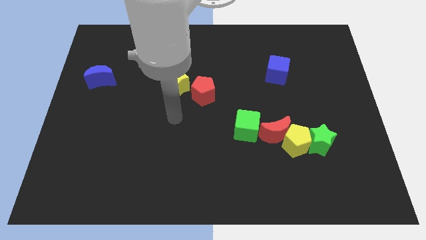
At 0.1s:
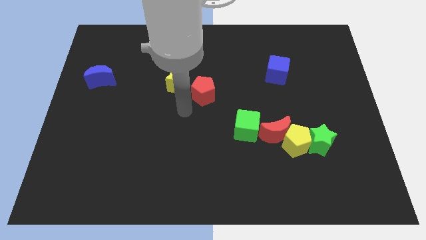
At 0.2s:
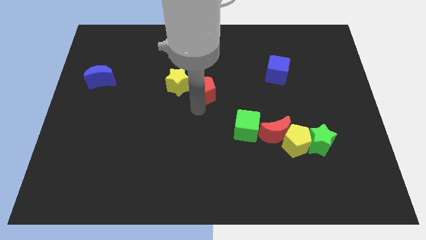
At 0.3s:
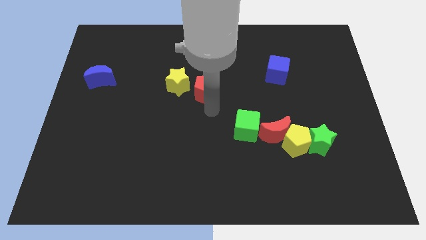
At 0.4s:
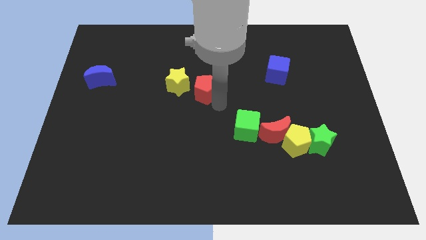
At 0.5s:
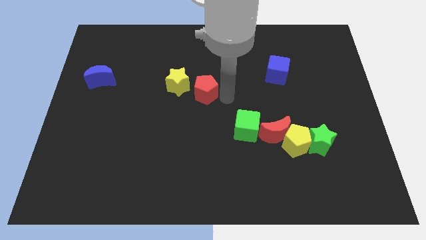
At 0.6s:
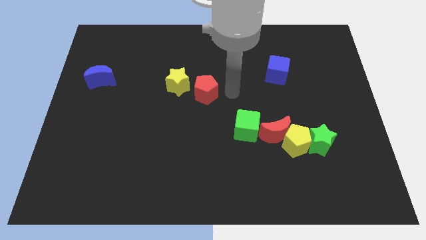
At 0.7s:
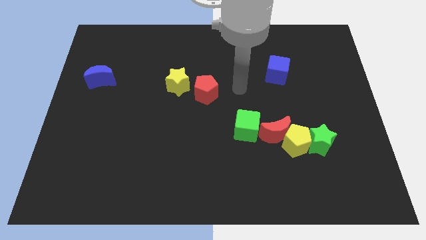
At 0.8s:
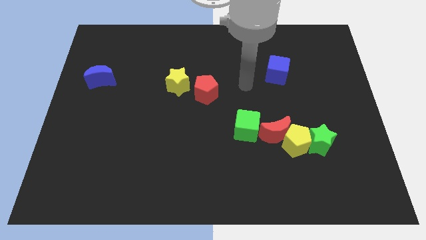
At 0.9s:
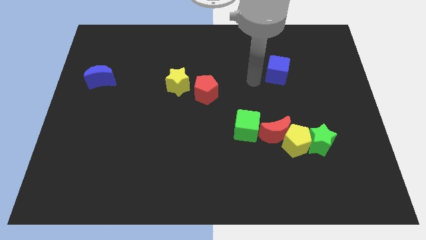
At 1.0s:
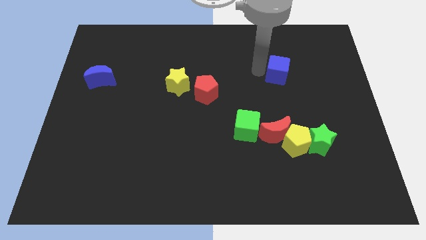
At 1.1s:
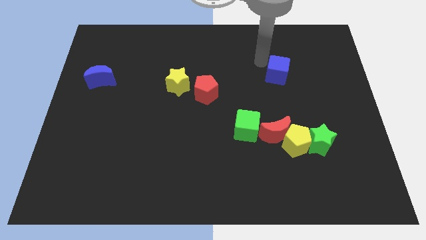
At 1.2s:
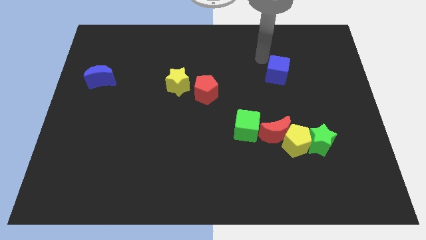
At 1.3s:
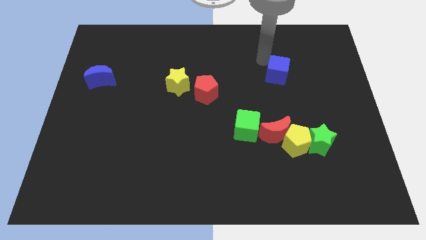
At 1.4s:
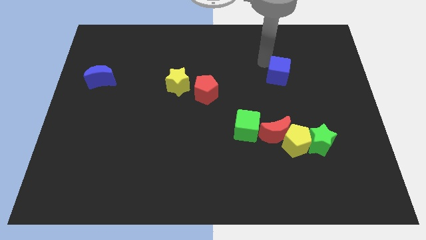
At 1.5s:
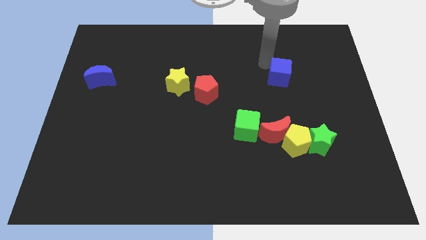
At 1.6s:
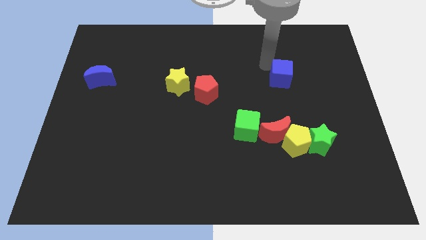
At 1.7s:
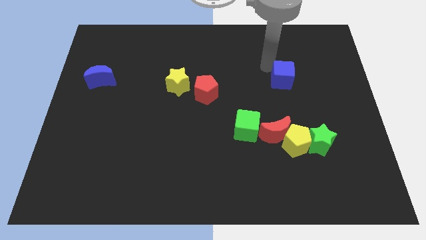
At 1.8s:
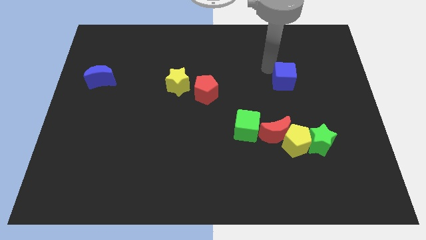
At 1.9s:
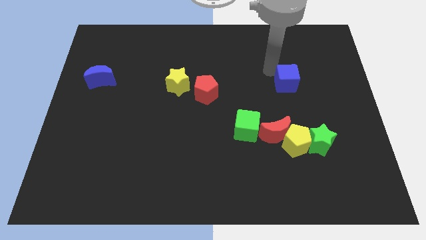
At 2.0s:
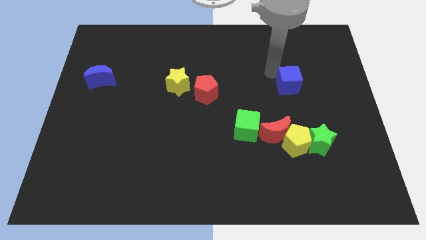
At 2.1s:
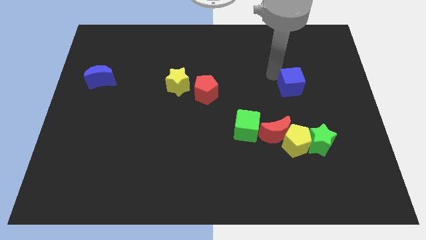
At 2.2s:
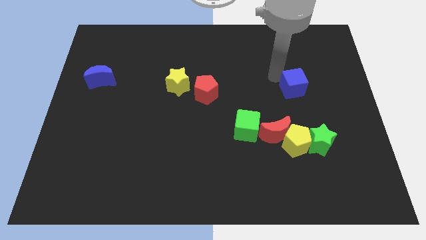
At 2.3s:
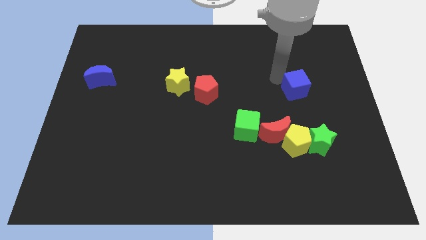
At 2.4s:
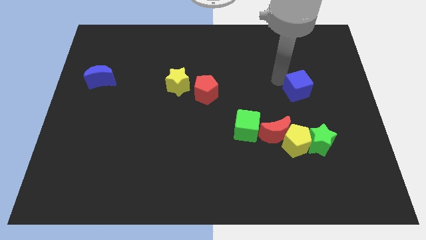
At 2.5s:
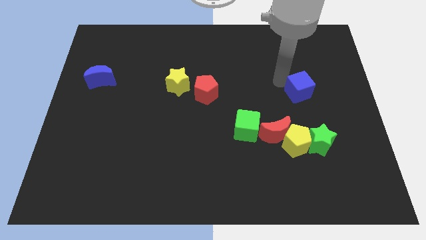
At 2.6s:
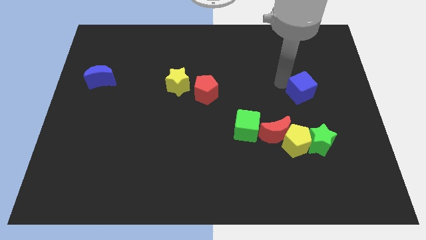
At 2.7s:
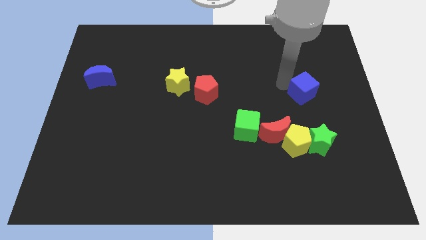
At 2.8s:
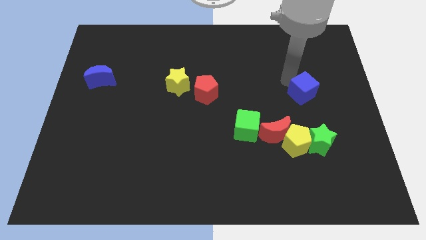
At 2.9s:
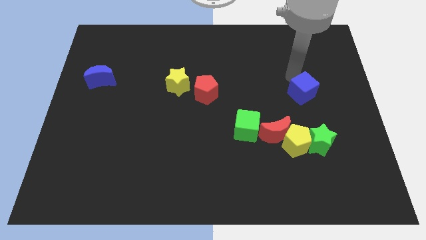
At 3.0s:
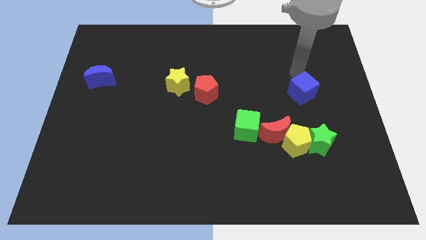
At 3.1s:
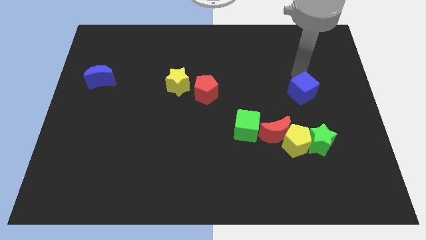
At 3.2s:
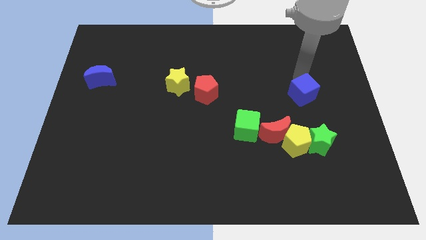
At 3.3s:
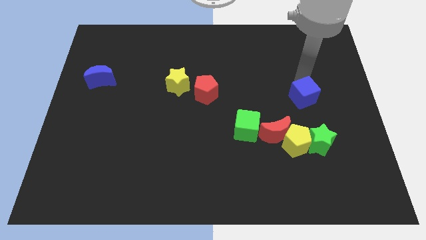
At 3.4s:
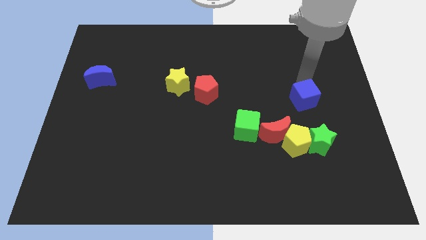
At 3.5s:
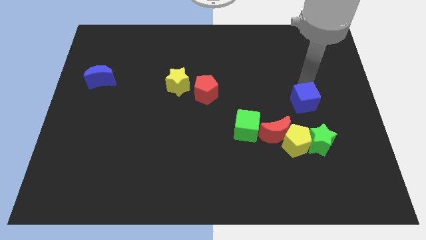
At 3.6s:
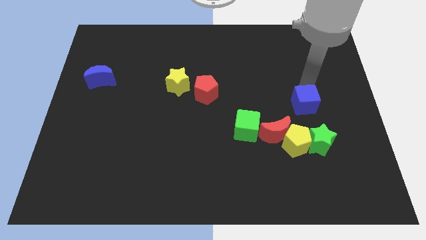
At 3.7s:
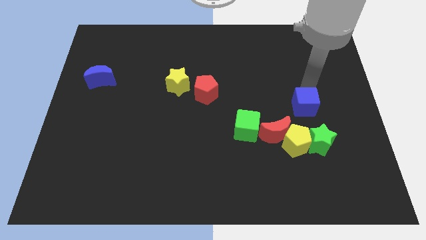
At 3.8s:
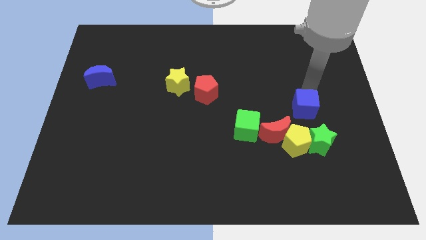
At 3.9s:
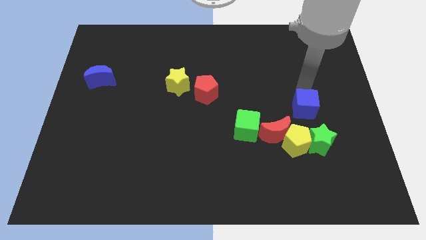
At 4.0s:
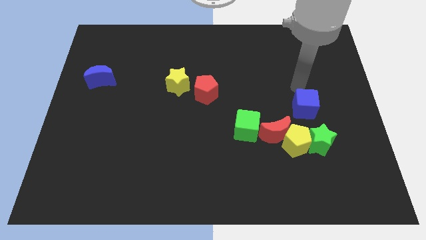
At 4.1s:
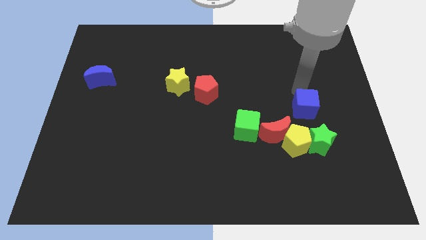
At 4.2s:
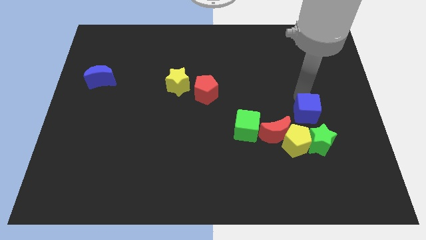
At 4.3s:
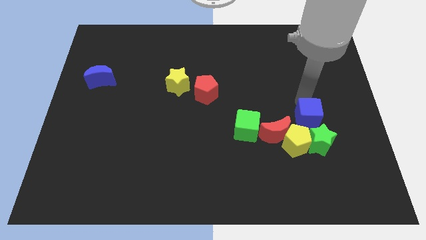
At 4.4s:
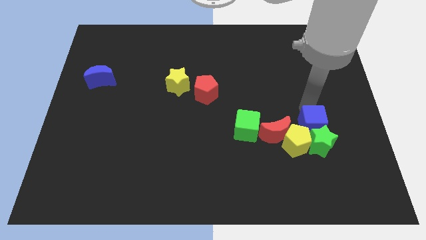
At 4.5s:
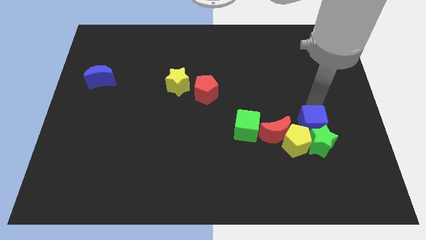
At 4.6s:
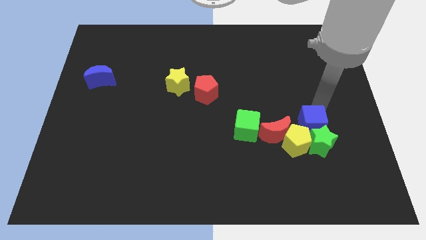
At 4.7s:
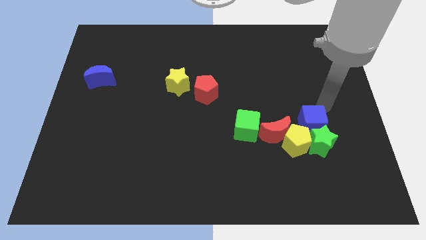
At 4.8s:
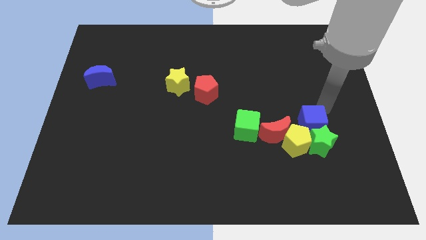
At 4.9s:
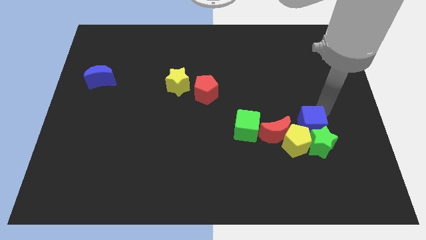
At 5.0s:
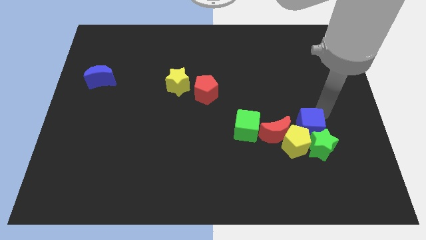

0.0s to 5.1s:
push the blue cube towards the yellow pentagon

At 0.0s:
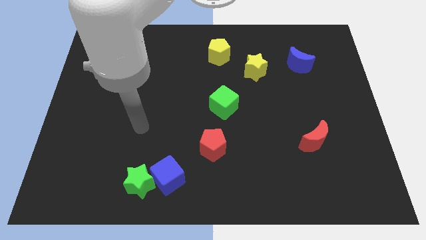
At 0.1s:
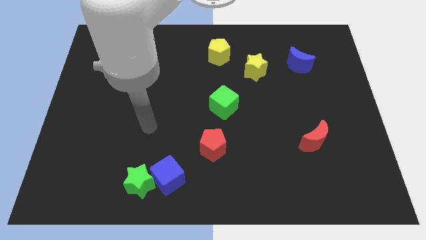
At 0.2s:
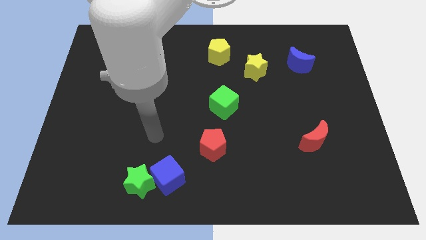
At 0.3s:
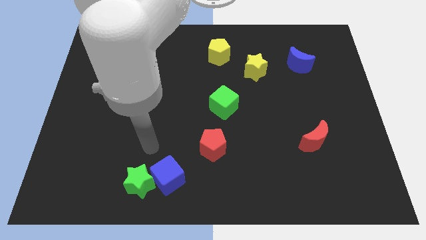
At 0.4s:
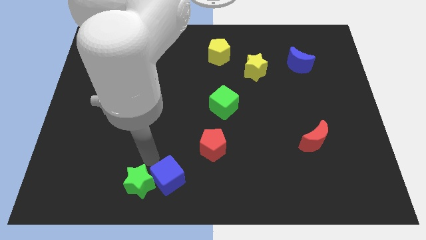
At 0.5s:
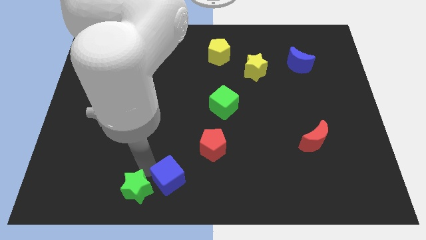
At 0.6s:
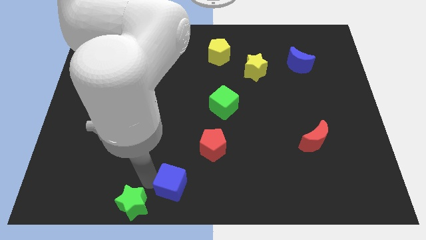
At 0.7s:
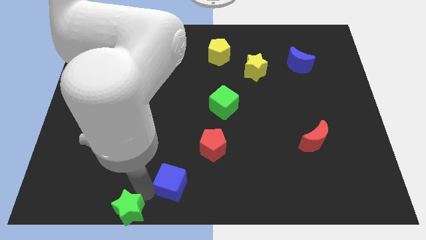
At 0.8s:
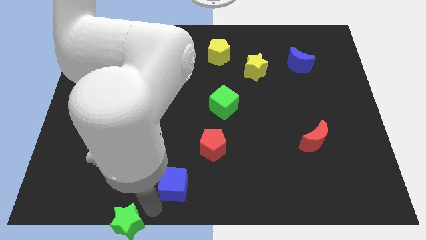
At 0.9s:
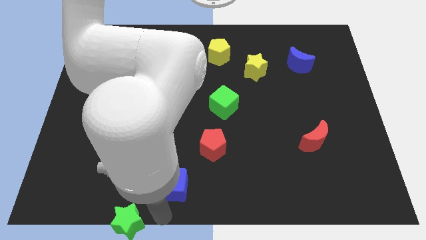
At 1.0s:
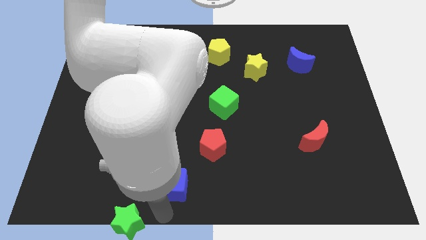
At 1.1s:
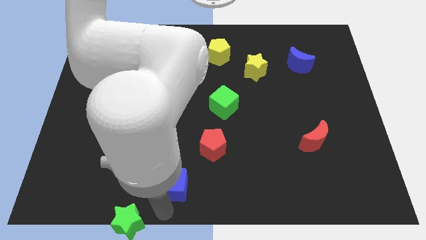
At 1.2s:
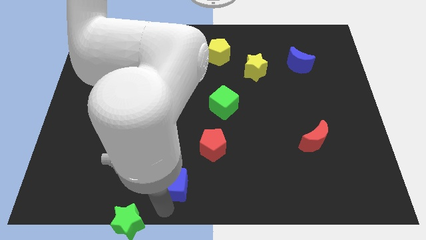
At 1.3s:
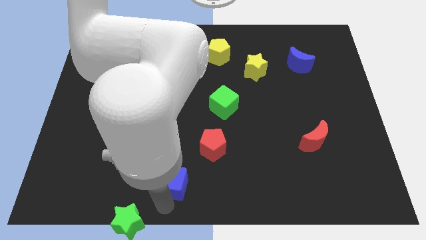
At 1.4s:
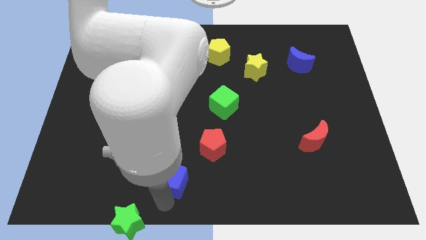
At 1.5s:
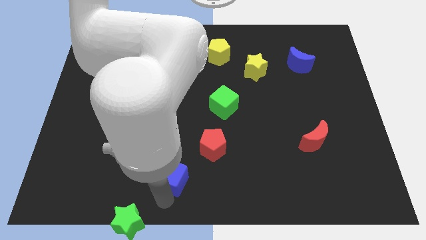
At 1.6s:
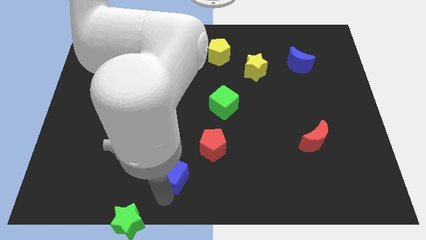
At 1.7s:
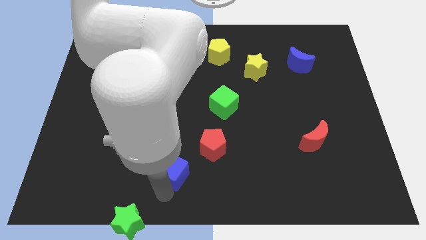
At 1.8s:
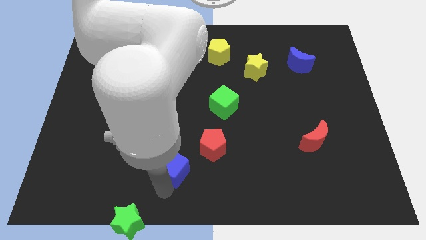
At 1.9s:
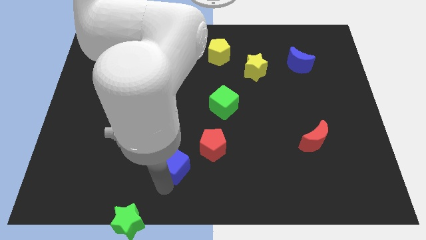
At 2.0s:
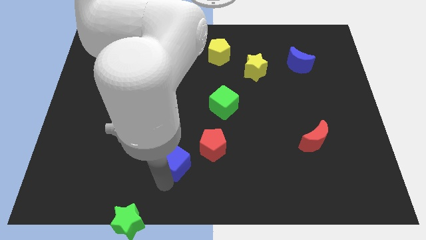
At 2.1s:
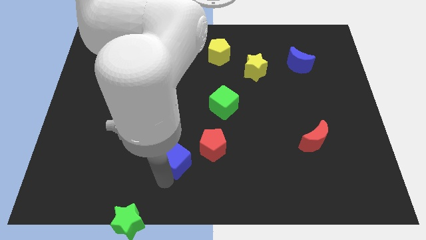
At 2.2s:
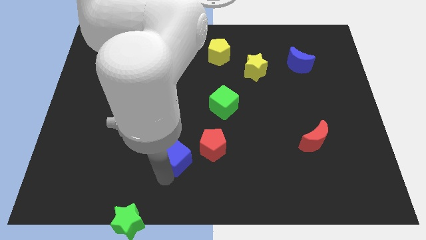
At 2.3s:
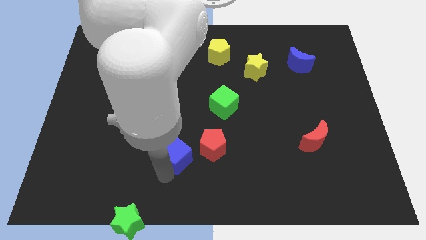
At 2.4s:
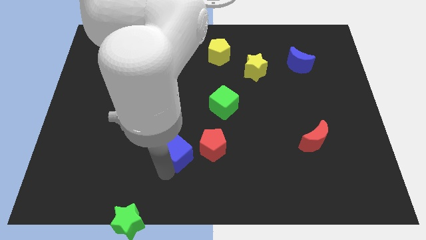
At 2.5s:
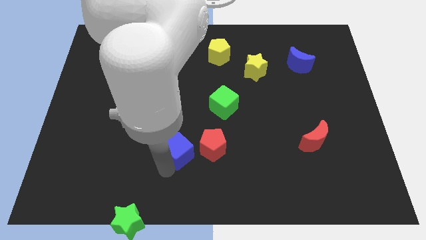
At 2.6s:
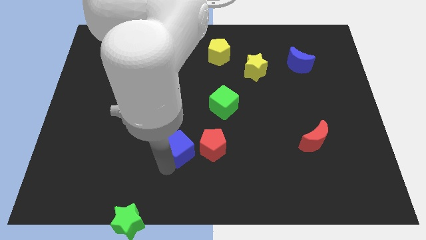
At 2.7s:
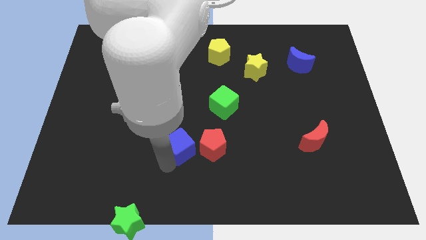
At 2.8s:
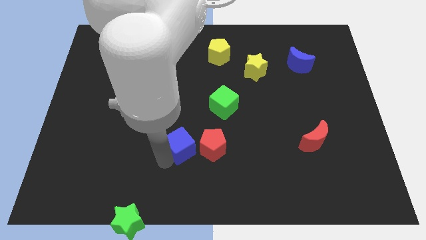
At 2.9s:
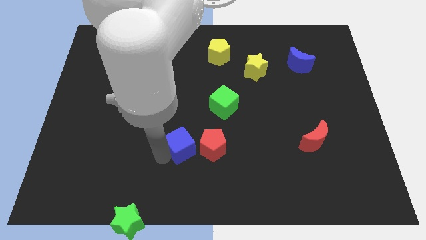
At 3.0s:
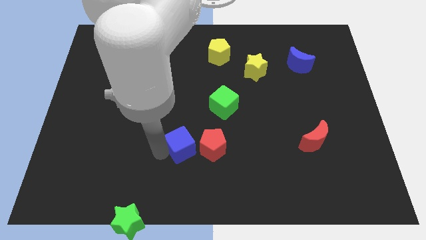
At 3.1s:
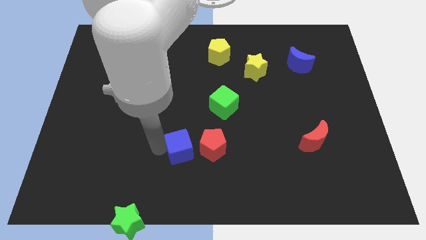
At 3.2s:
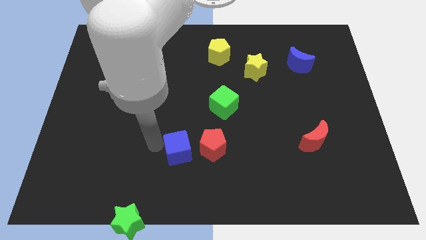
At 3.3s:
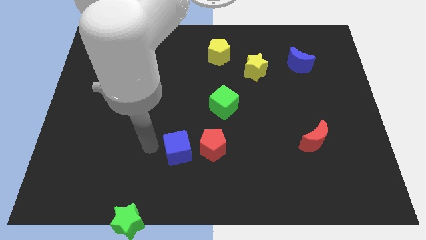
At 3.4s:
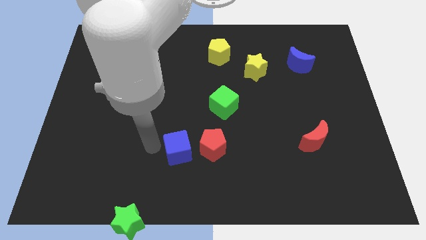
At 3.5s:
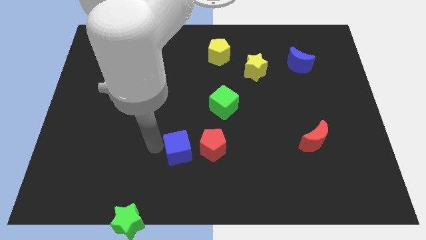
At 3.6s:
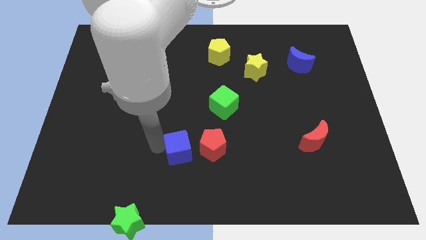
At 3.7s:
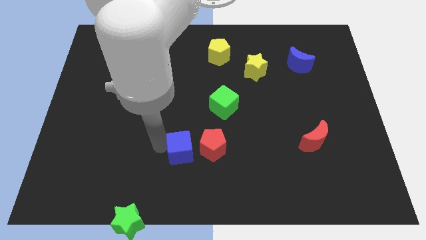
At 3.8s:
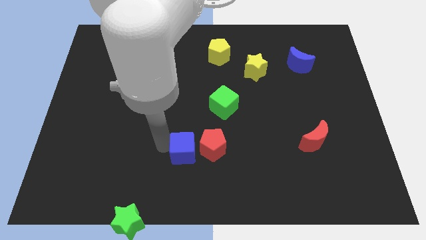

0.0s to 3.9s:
push the blue cube towards the red pentagon
